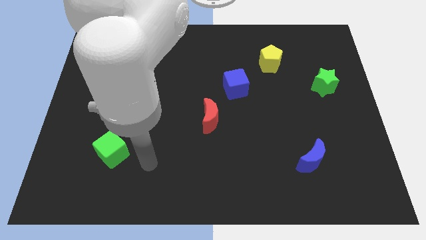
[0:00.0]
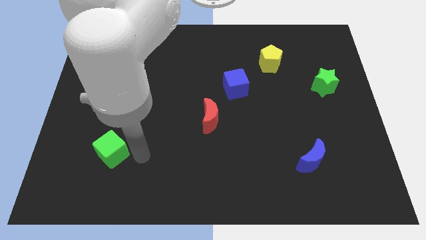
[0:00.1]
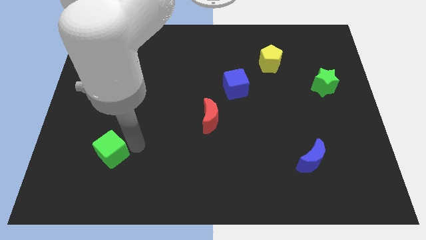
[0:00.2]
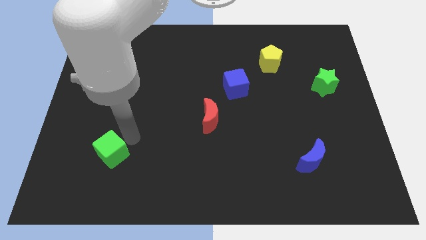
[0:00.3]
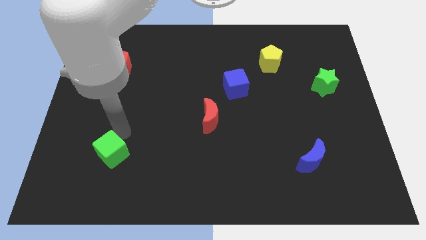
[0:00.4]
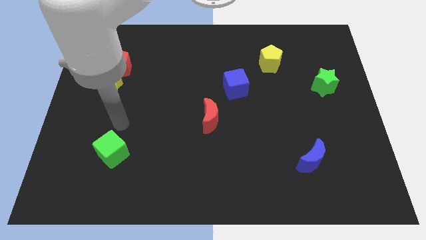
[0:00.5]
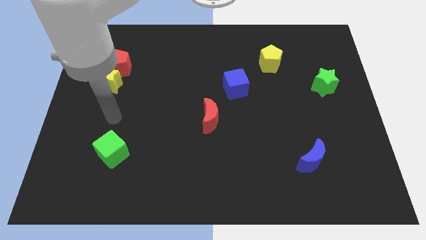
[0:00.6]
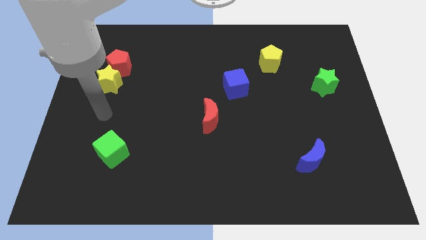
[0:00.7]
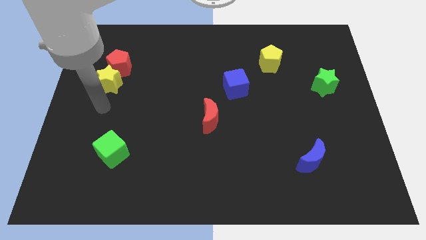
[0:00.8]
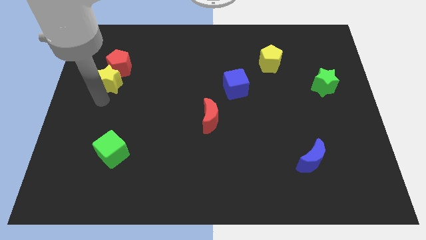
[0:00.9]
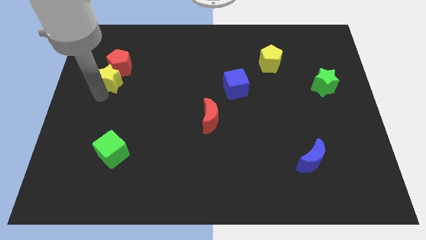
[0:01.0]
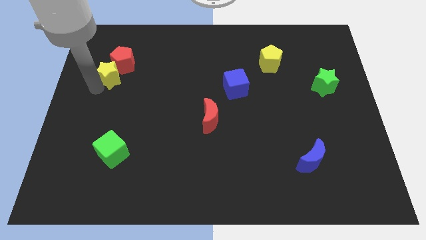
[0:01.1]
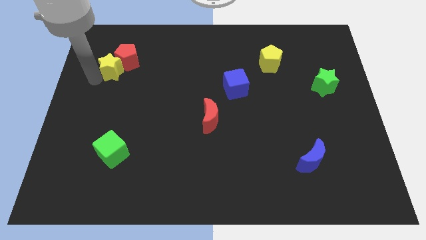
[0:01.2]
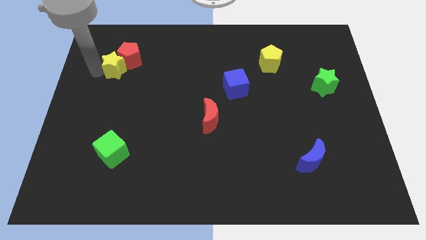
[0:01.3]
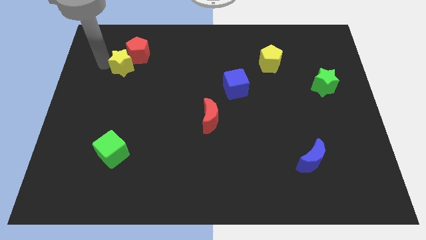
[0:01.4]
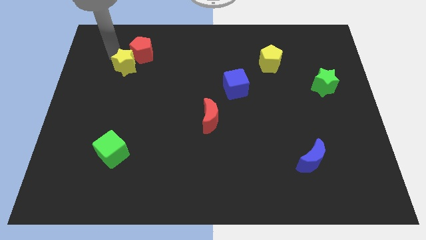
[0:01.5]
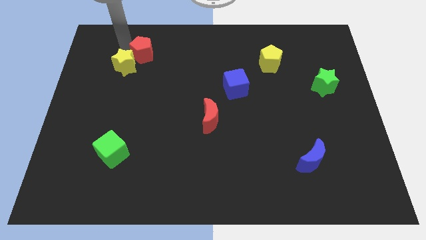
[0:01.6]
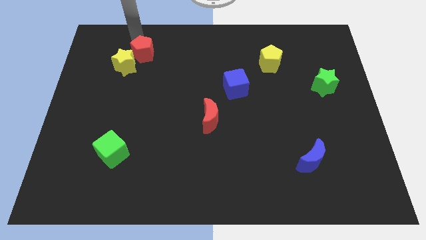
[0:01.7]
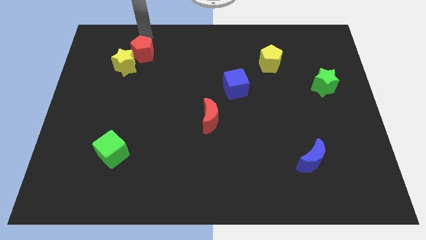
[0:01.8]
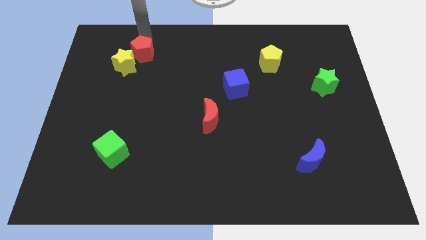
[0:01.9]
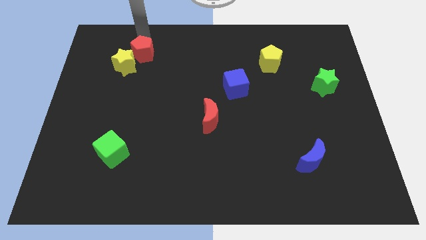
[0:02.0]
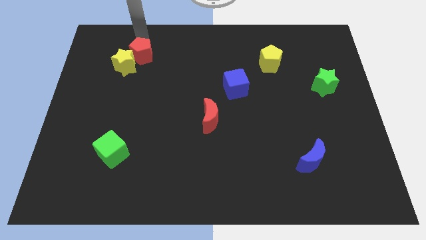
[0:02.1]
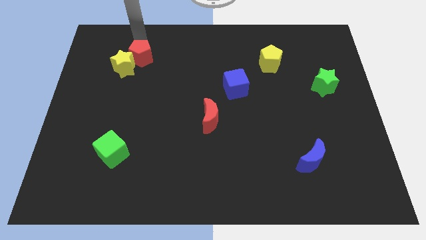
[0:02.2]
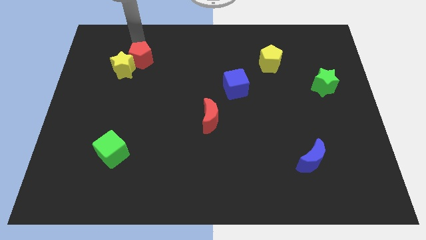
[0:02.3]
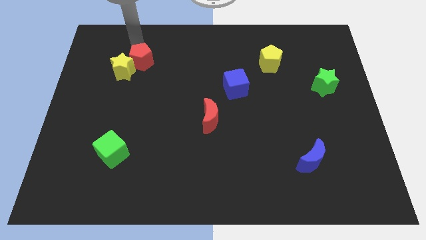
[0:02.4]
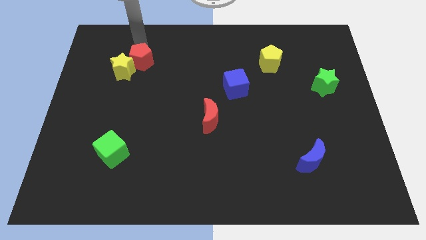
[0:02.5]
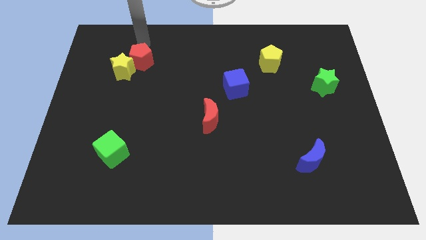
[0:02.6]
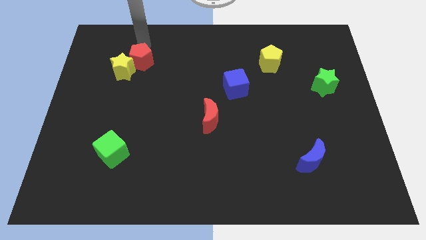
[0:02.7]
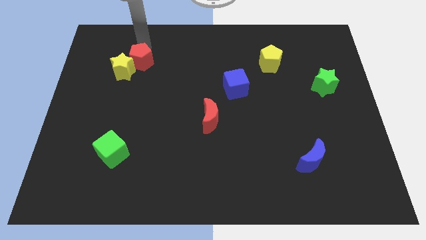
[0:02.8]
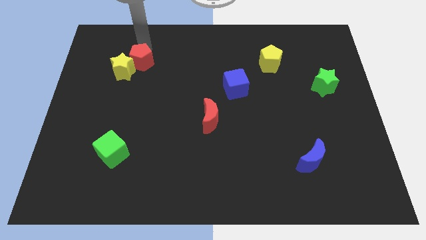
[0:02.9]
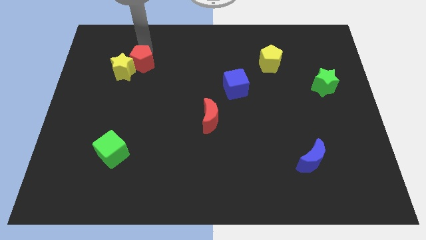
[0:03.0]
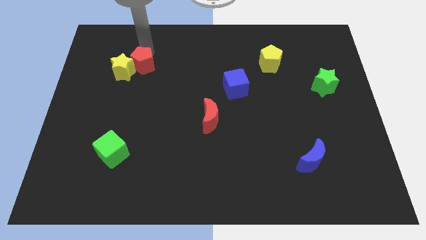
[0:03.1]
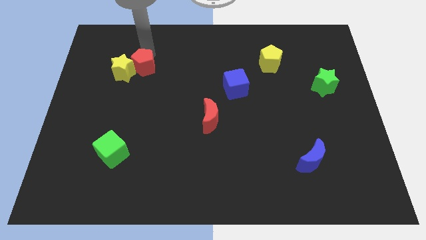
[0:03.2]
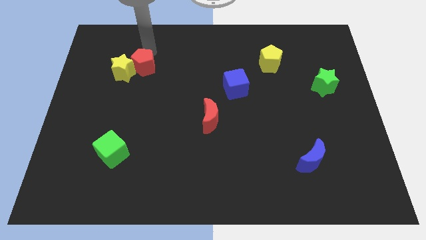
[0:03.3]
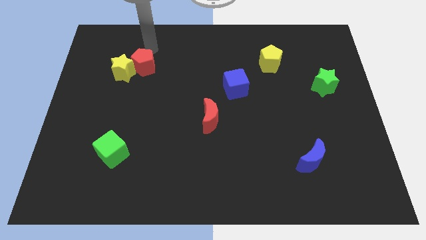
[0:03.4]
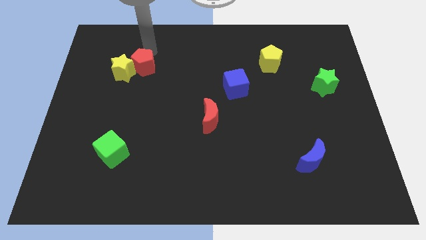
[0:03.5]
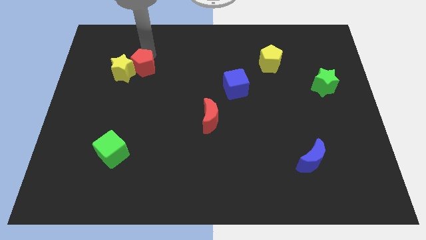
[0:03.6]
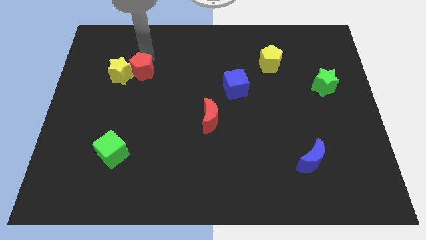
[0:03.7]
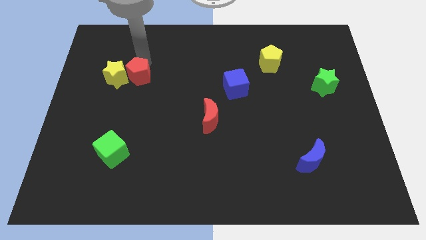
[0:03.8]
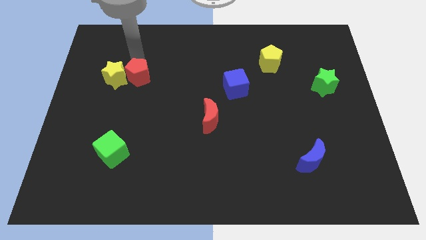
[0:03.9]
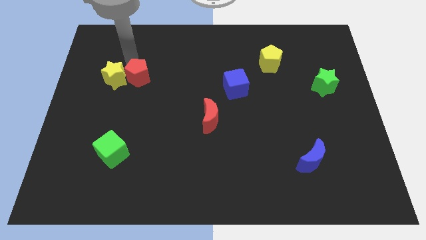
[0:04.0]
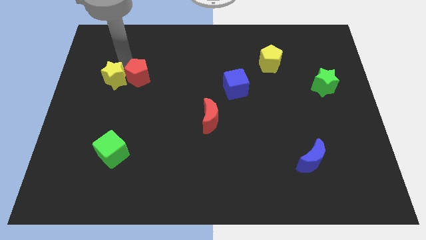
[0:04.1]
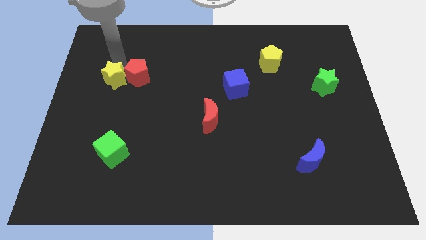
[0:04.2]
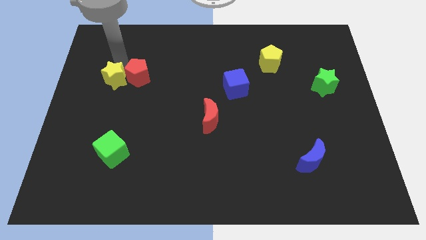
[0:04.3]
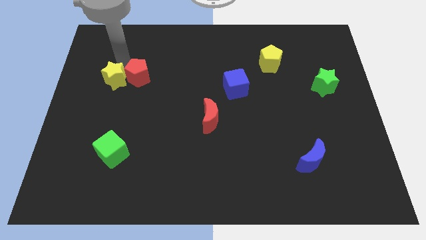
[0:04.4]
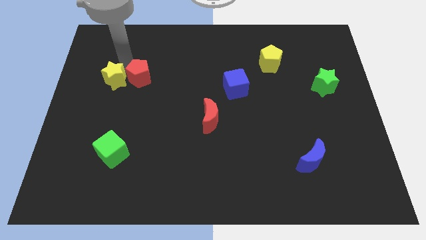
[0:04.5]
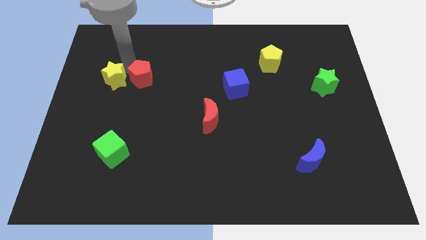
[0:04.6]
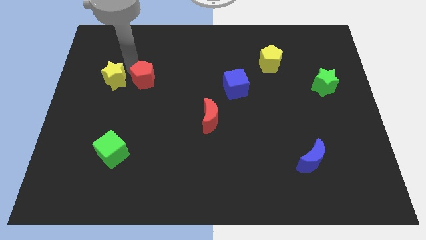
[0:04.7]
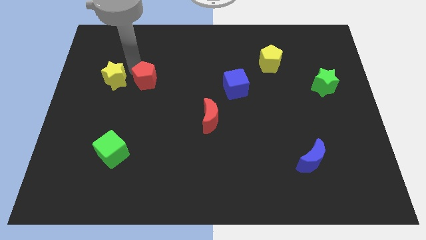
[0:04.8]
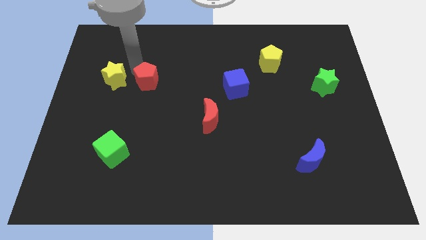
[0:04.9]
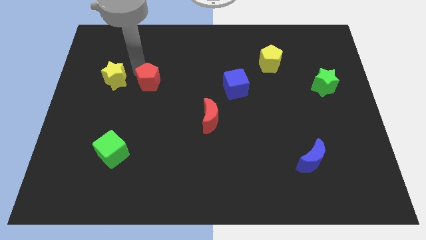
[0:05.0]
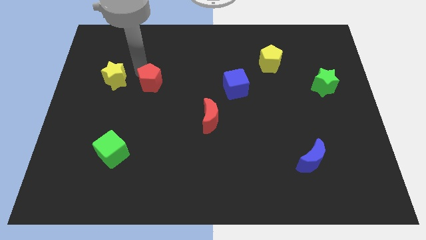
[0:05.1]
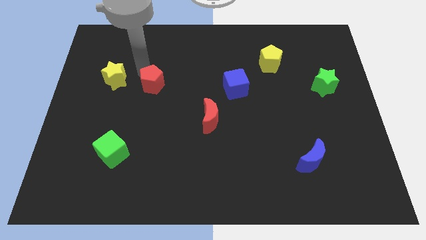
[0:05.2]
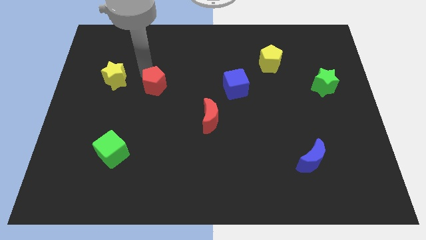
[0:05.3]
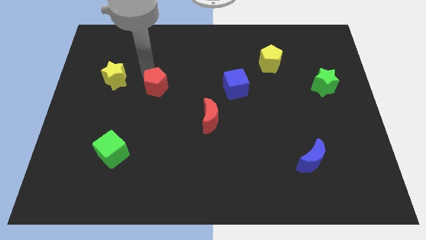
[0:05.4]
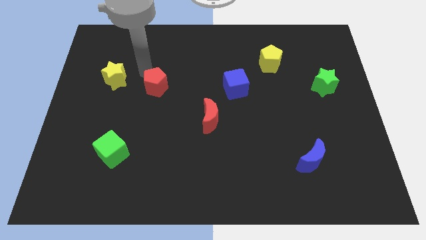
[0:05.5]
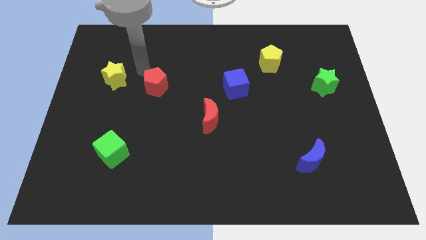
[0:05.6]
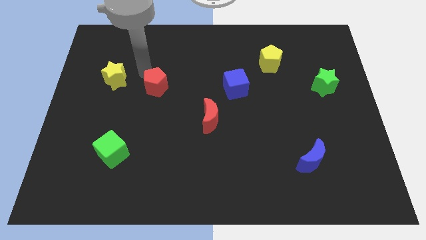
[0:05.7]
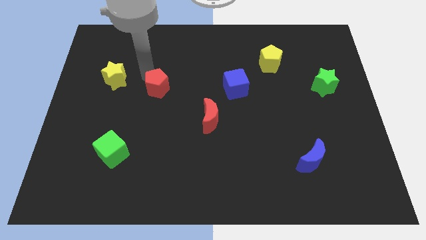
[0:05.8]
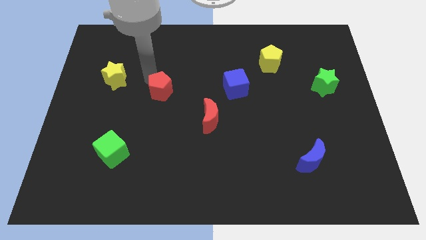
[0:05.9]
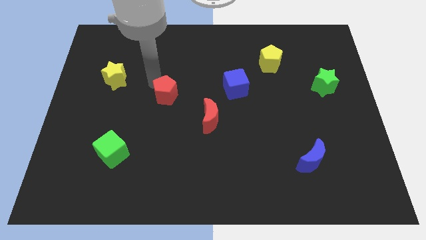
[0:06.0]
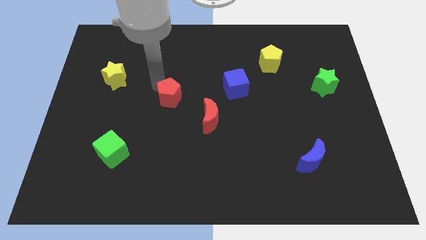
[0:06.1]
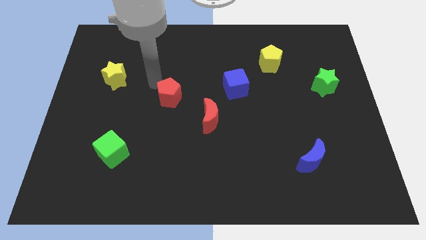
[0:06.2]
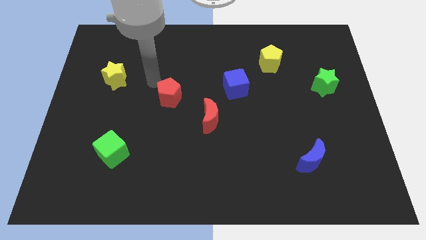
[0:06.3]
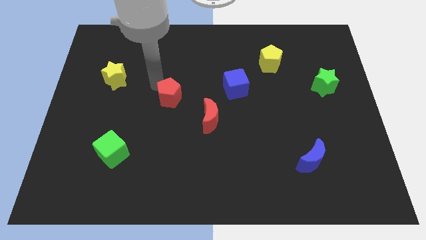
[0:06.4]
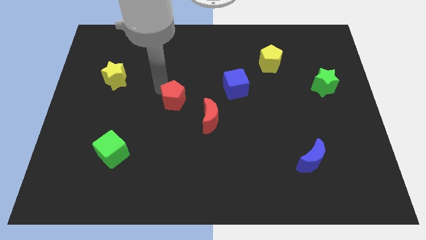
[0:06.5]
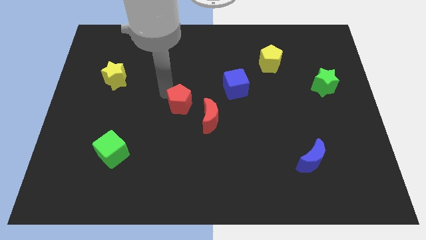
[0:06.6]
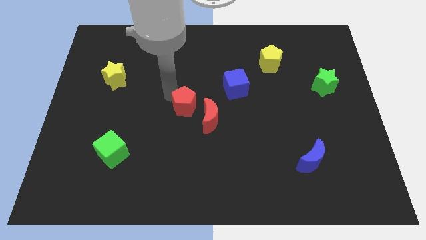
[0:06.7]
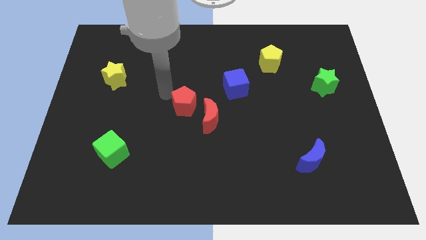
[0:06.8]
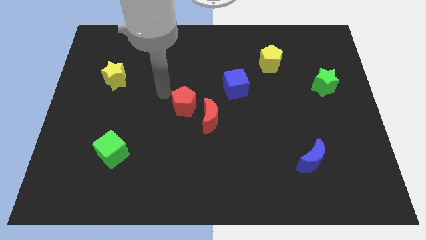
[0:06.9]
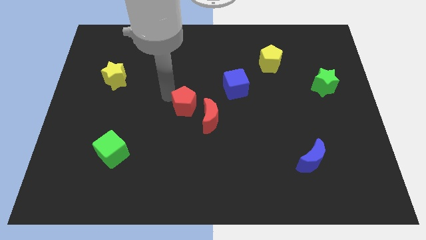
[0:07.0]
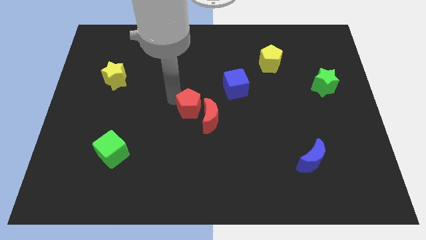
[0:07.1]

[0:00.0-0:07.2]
slide the red pentagon close to the red moon
